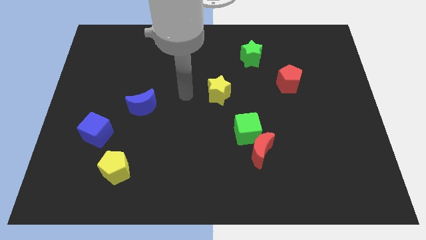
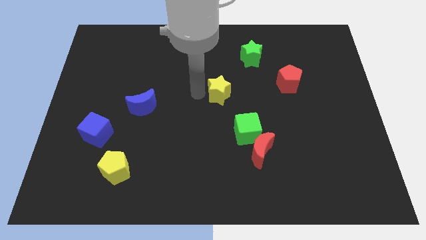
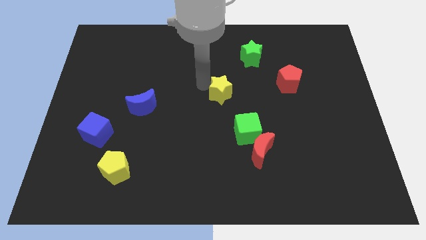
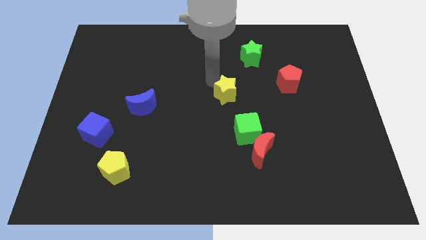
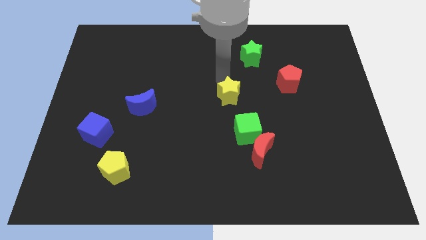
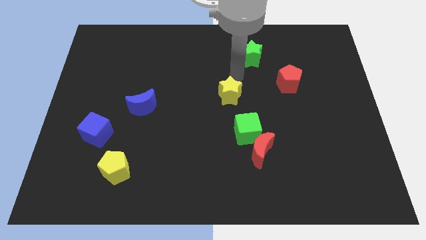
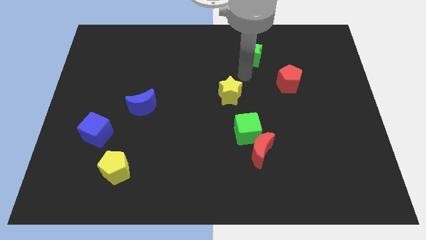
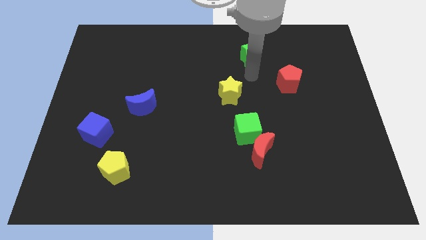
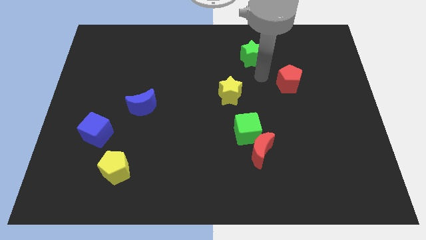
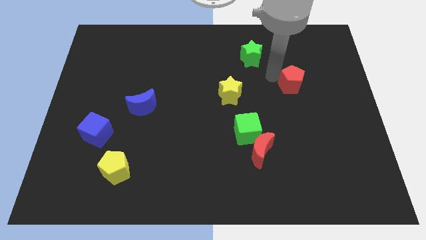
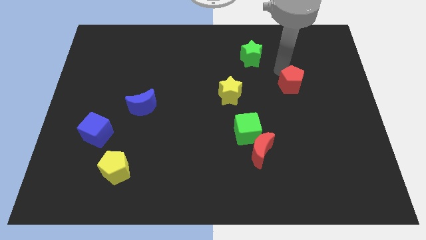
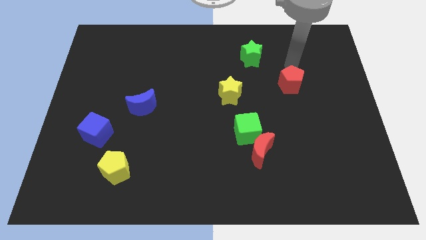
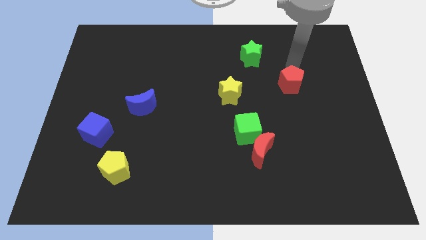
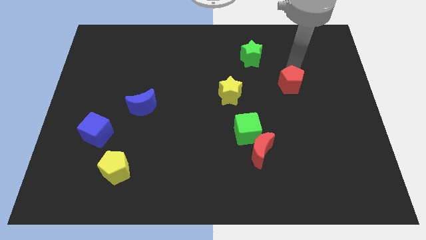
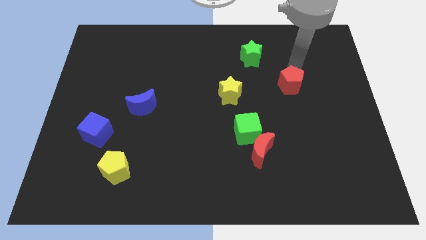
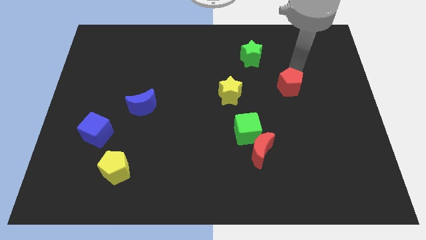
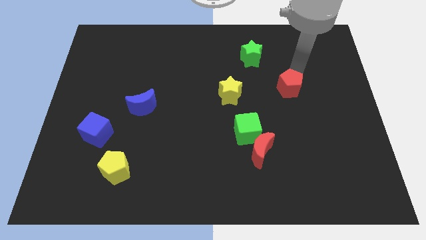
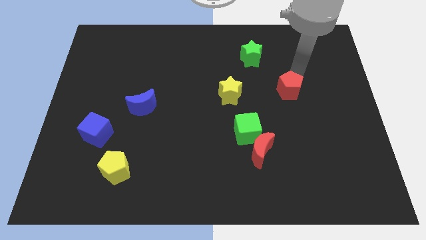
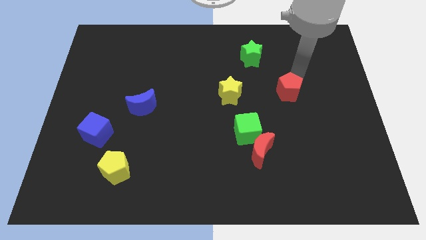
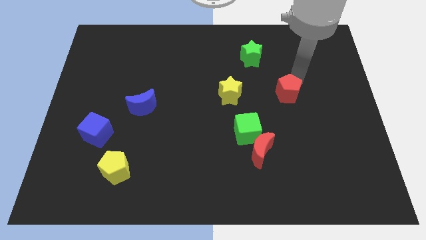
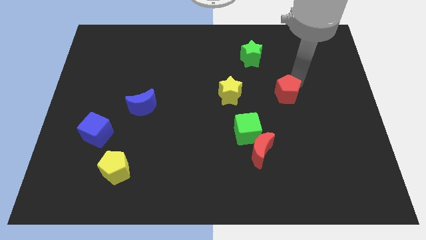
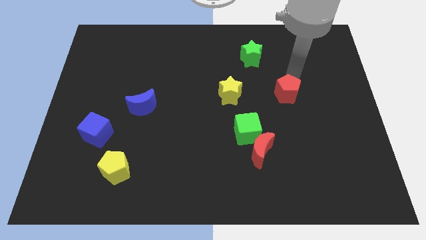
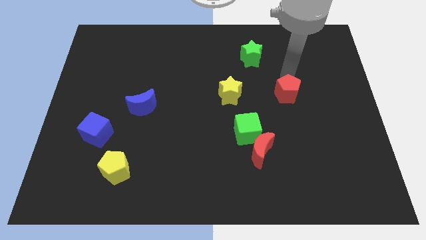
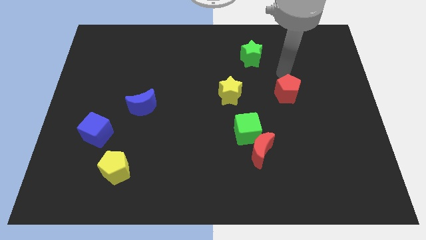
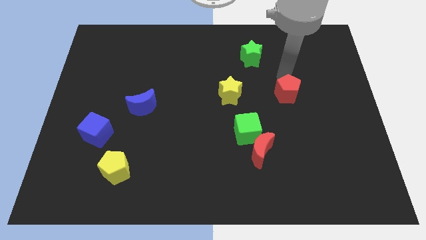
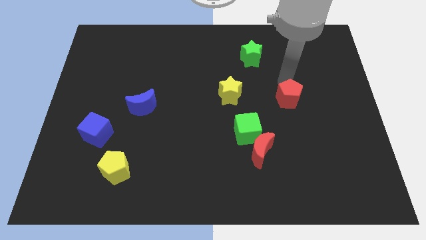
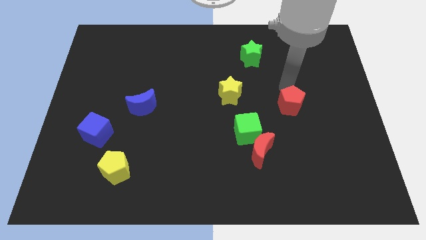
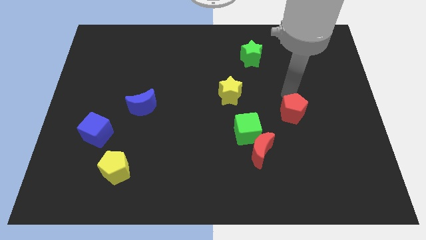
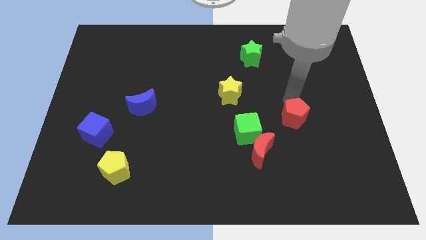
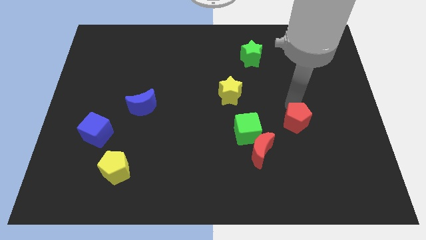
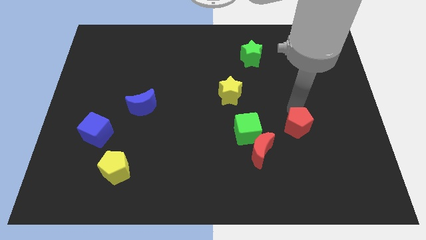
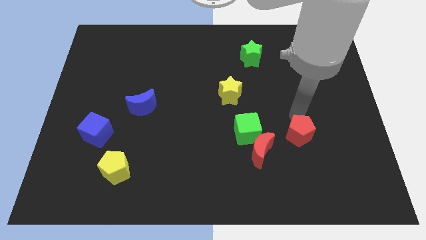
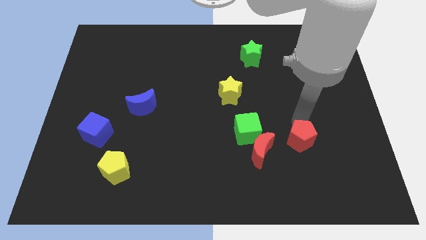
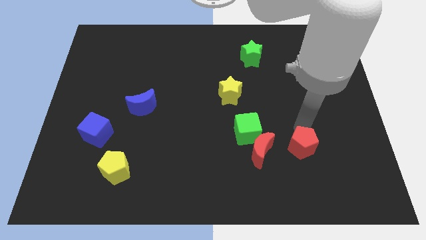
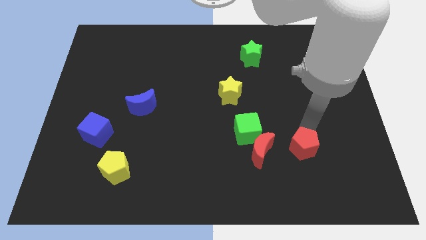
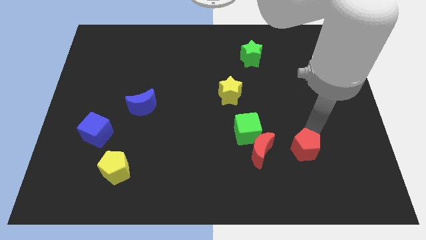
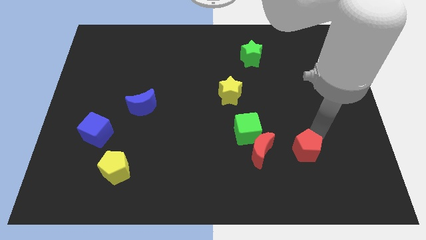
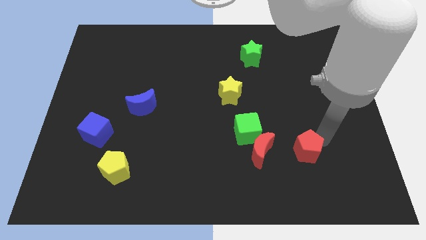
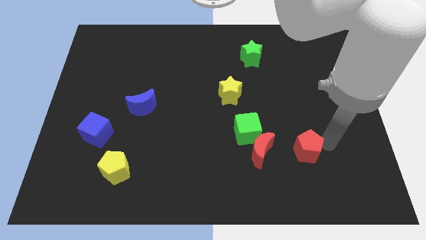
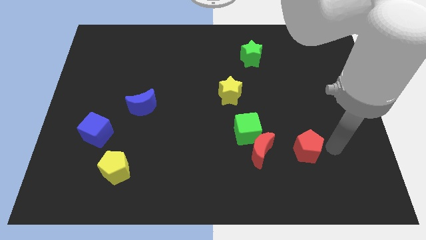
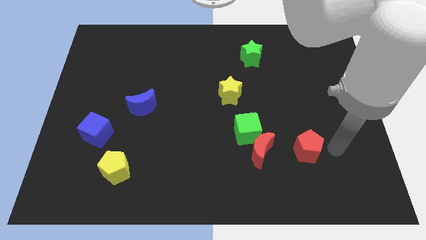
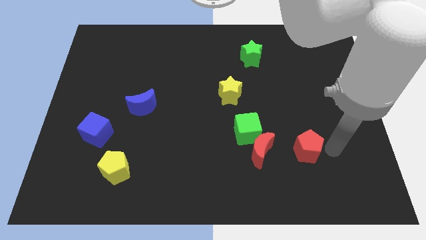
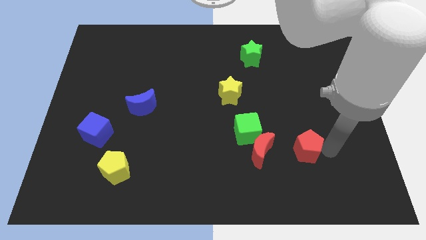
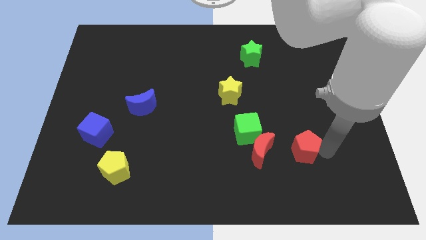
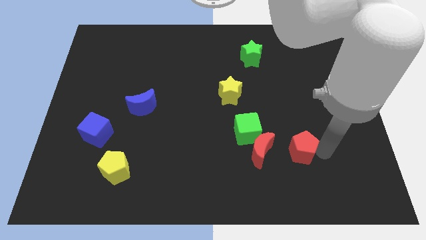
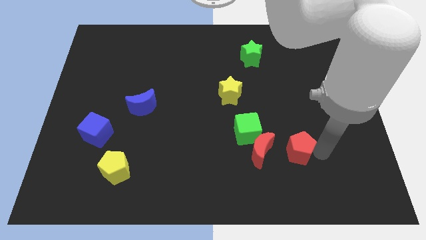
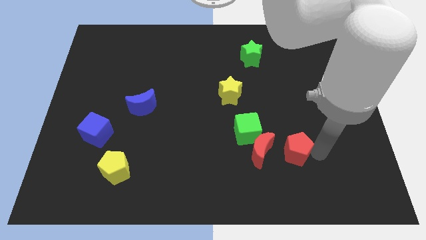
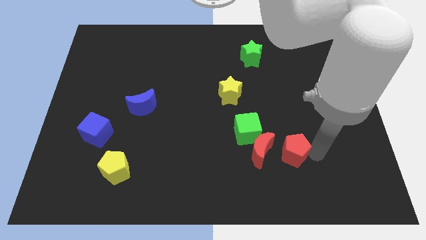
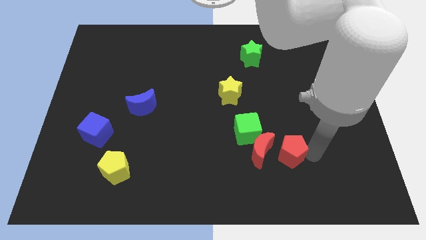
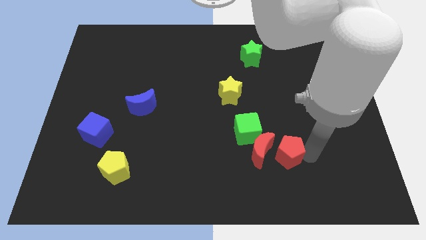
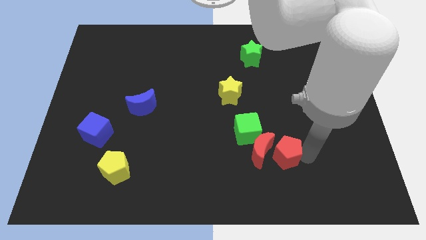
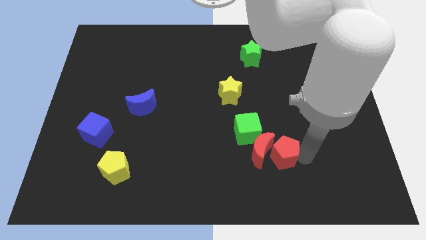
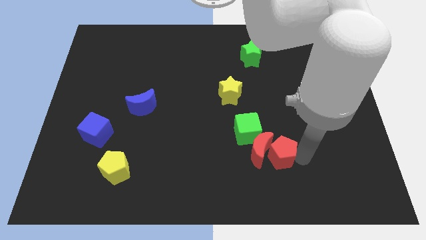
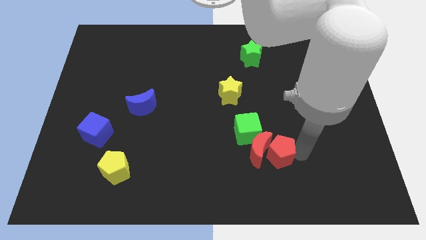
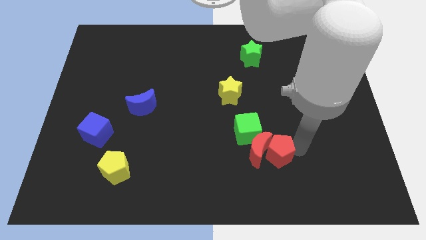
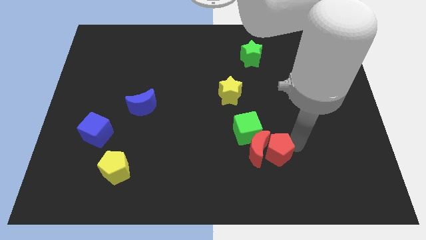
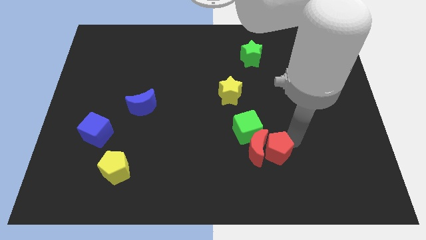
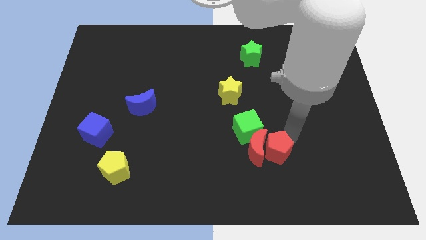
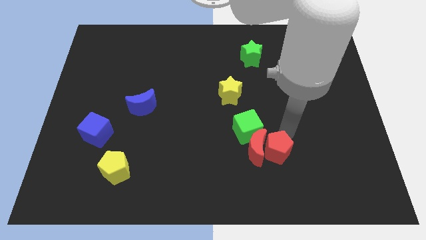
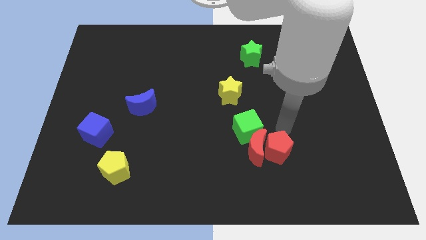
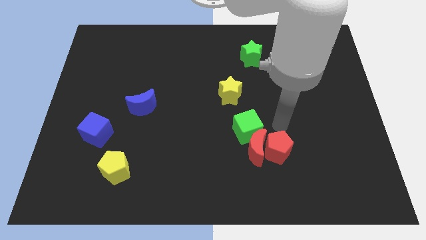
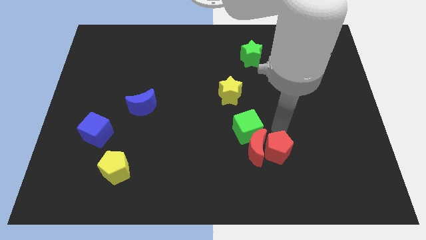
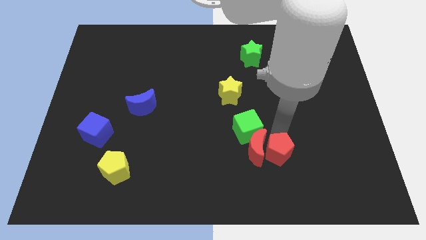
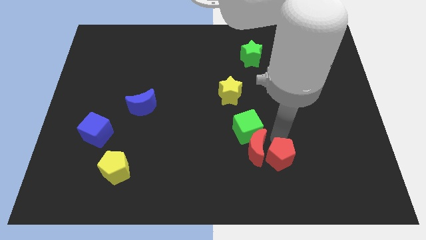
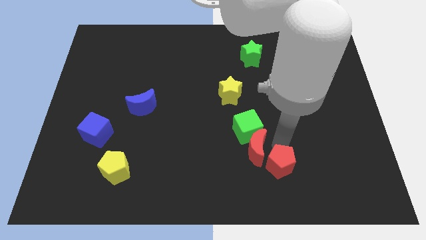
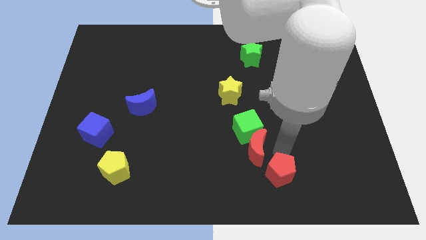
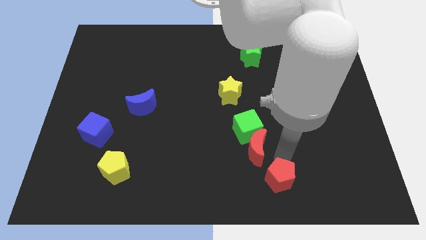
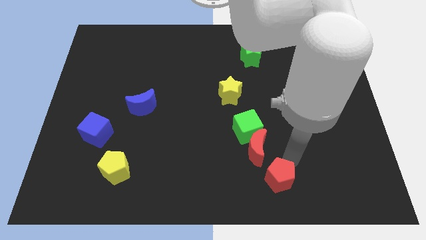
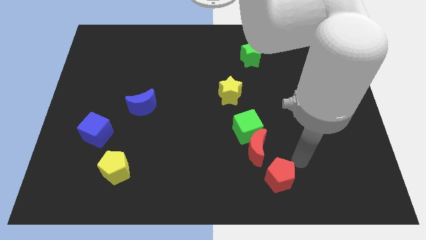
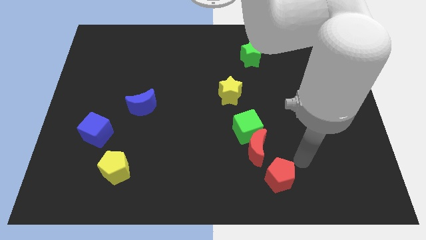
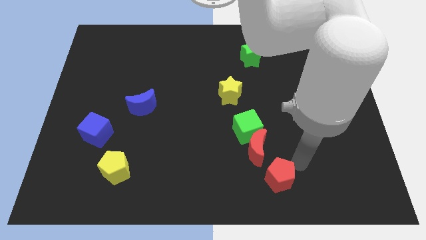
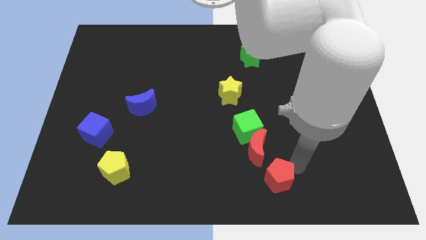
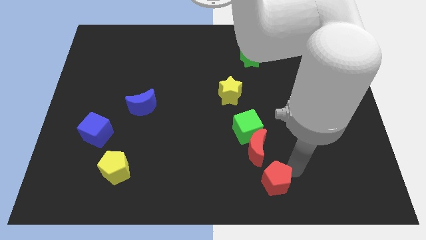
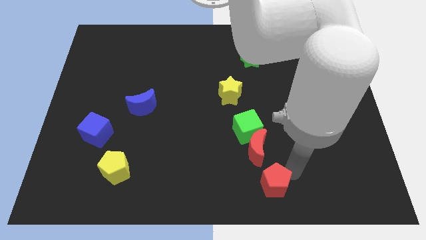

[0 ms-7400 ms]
move the red pentagon to the bottom side

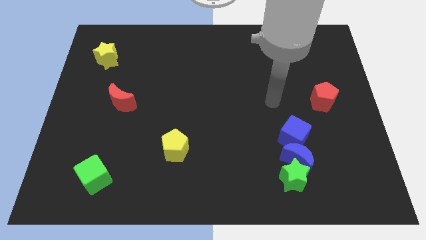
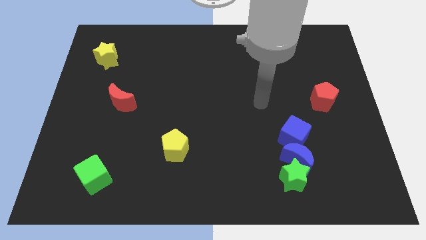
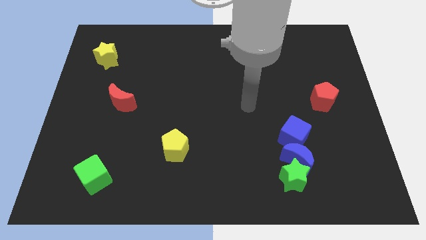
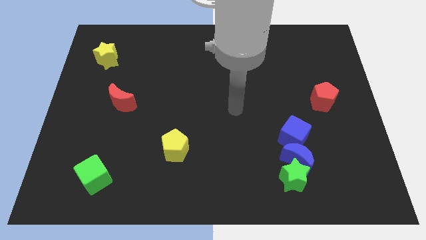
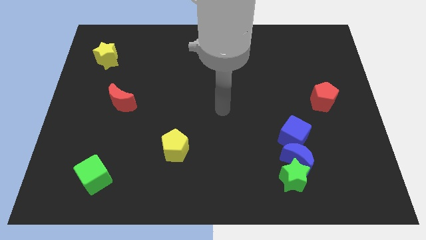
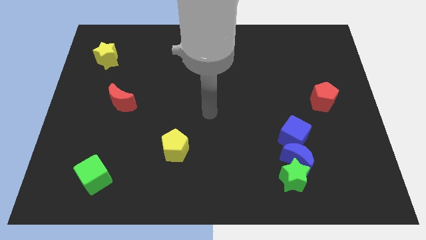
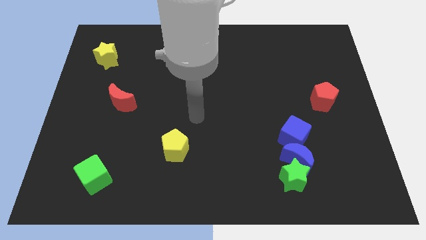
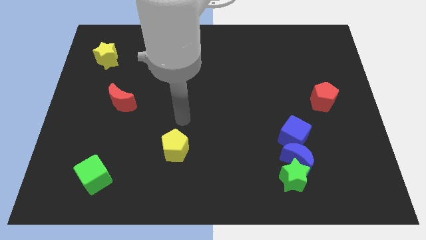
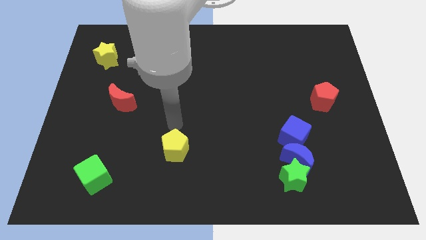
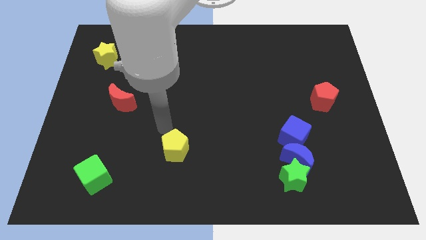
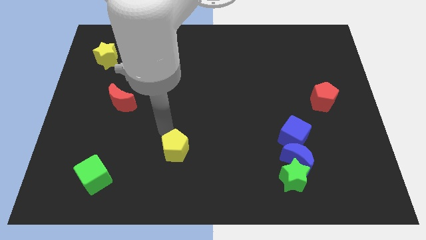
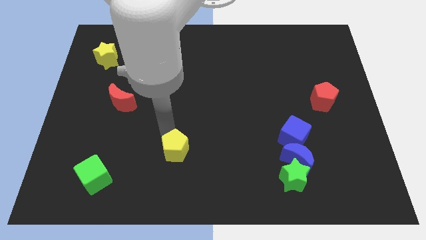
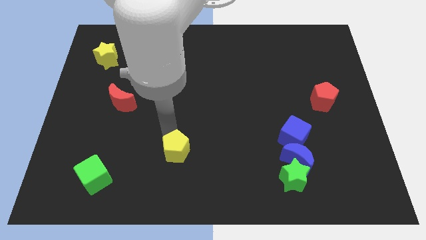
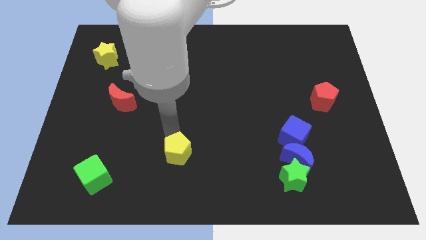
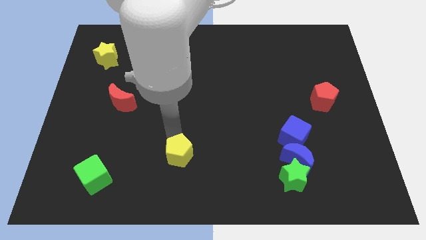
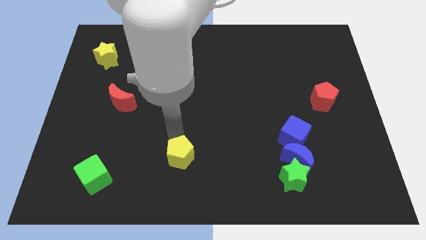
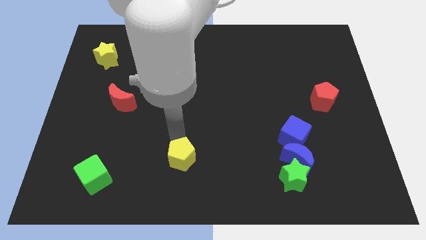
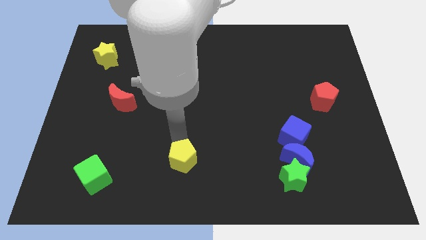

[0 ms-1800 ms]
push the yellow pentagon to the bottom side
